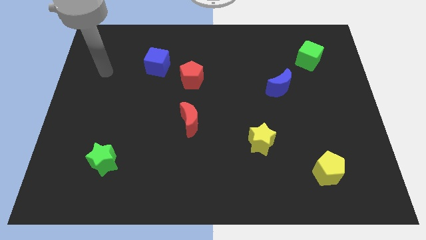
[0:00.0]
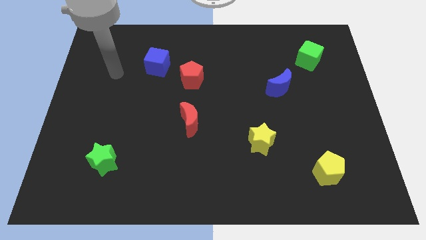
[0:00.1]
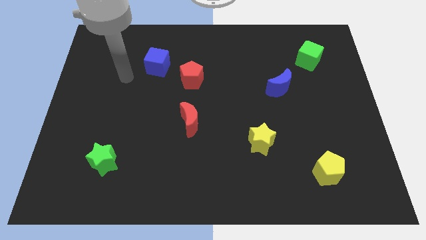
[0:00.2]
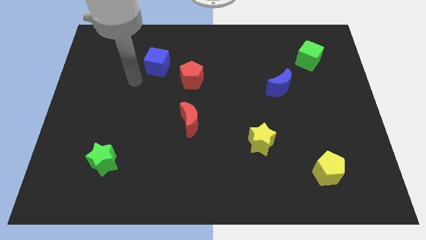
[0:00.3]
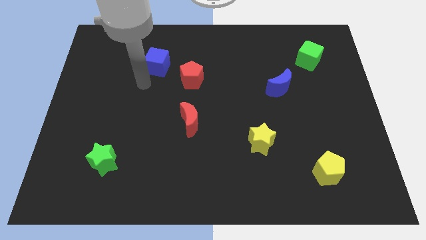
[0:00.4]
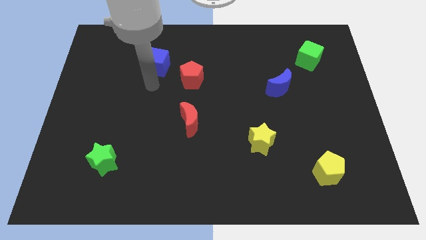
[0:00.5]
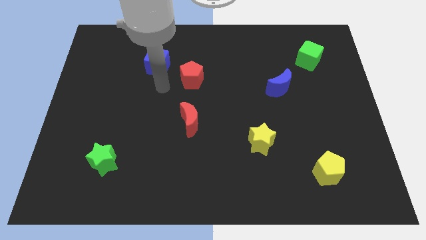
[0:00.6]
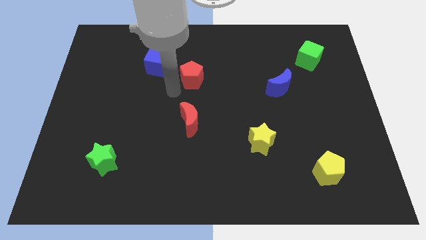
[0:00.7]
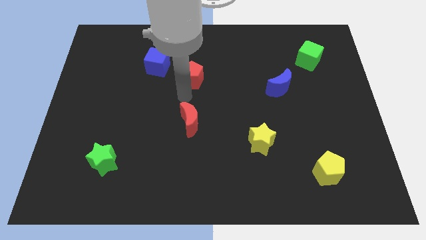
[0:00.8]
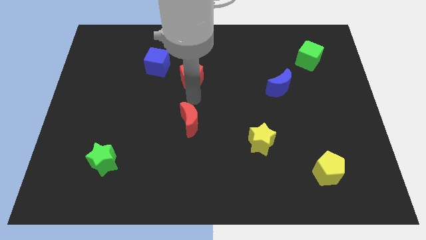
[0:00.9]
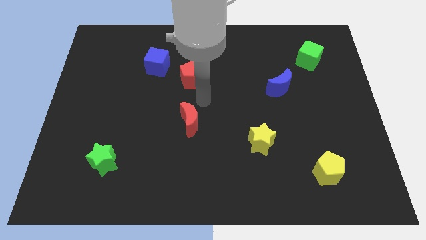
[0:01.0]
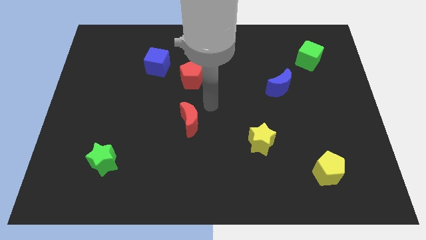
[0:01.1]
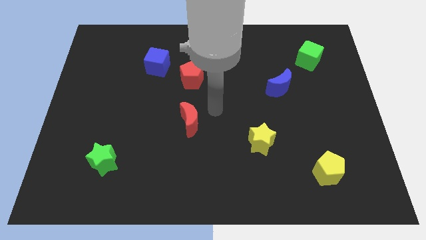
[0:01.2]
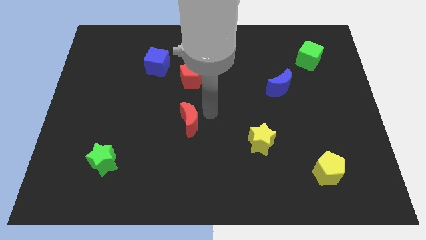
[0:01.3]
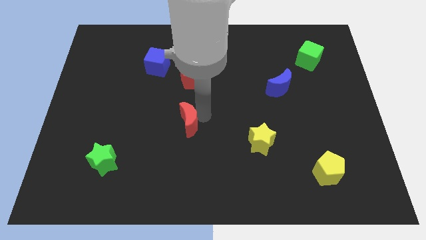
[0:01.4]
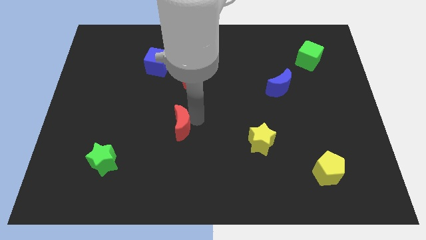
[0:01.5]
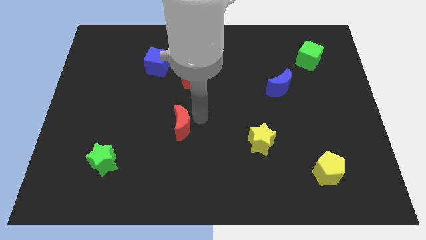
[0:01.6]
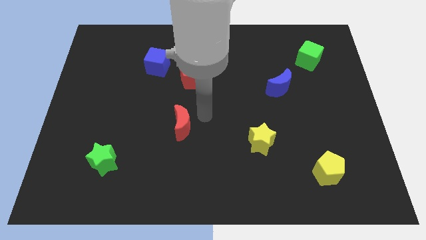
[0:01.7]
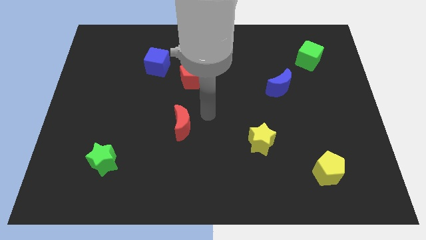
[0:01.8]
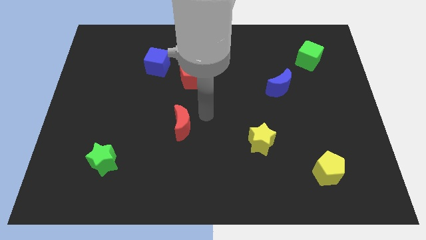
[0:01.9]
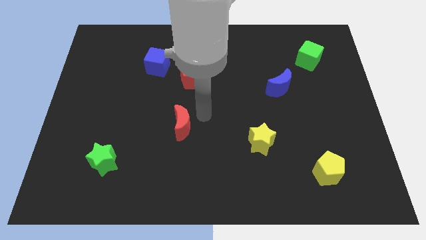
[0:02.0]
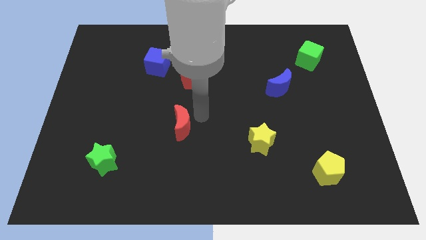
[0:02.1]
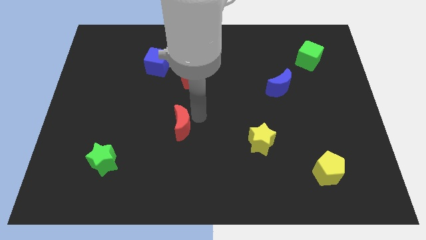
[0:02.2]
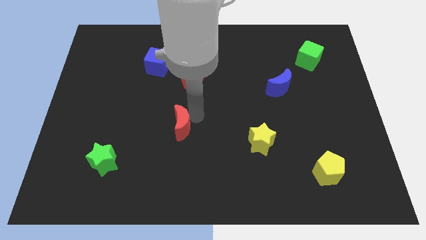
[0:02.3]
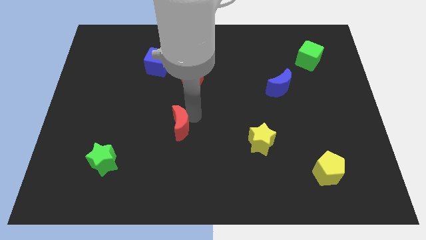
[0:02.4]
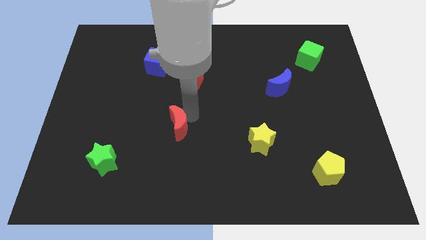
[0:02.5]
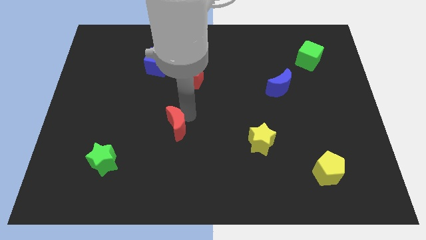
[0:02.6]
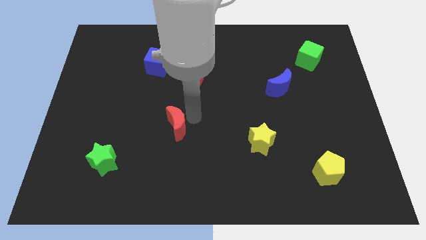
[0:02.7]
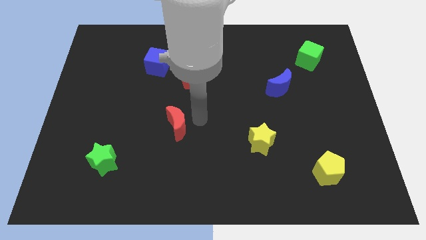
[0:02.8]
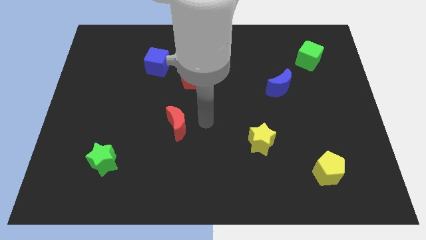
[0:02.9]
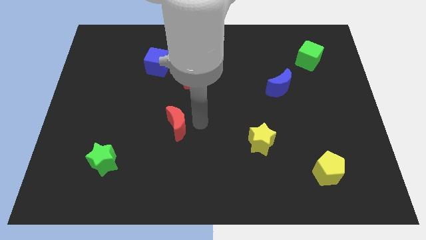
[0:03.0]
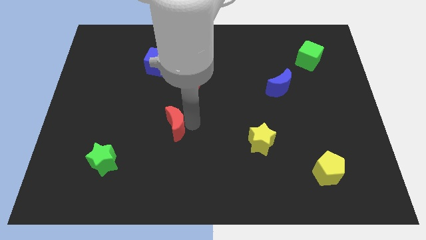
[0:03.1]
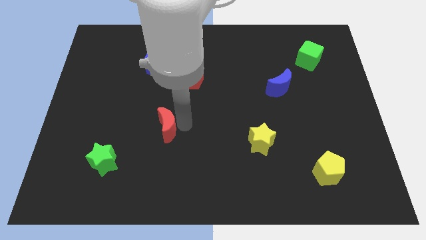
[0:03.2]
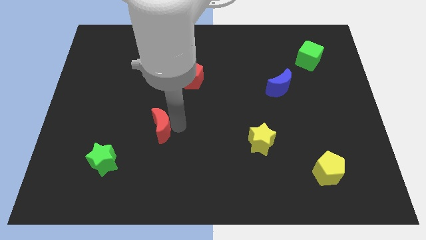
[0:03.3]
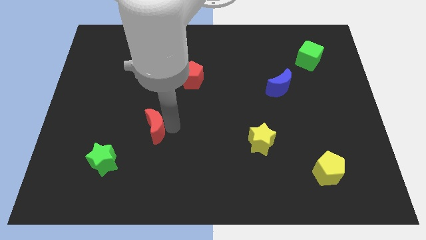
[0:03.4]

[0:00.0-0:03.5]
move the red moon to the left a little bit

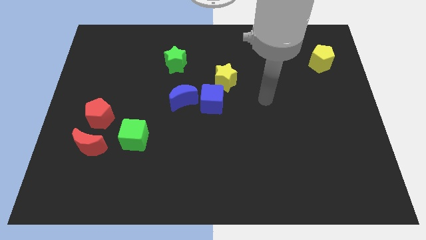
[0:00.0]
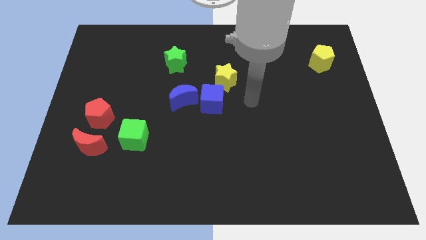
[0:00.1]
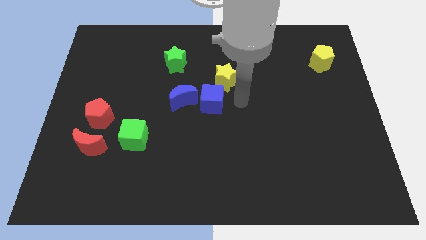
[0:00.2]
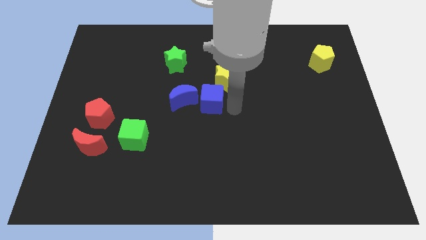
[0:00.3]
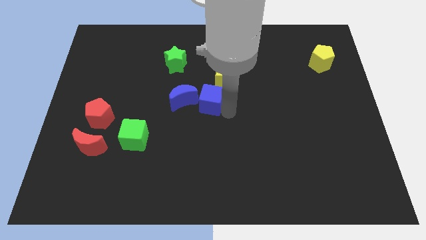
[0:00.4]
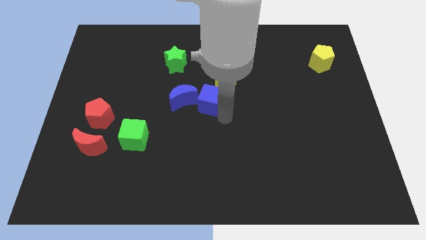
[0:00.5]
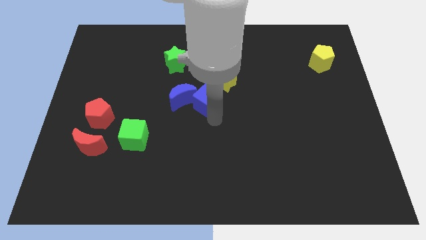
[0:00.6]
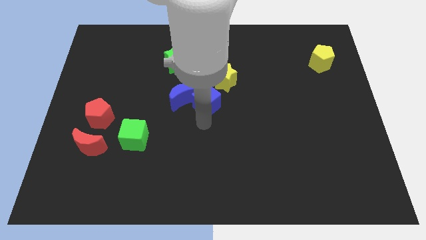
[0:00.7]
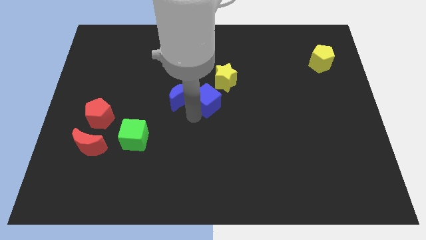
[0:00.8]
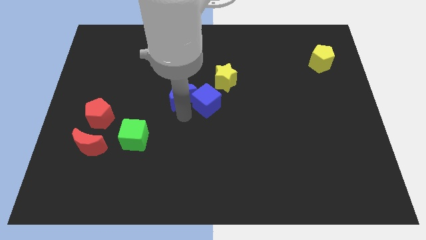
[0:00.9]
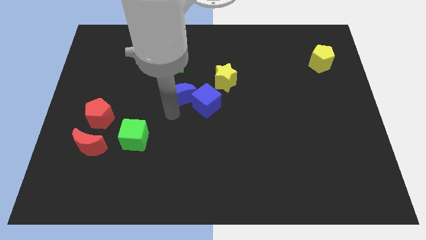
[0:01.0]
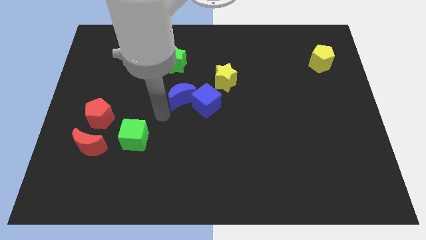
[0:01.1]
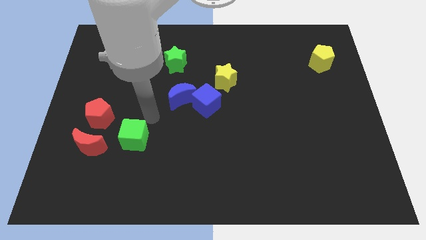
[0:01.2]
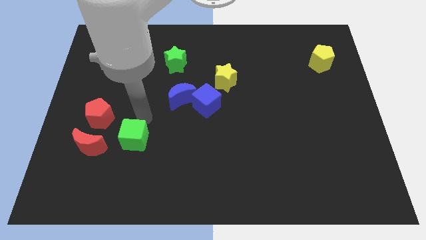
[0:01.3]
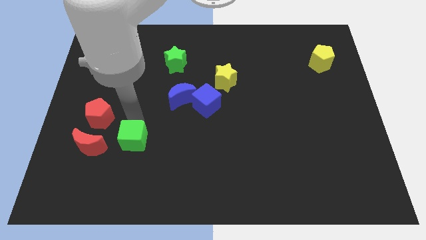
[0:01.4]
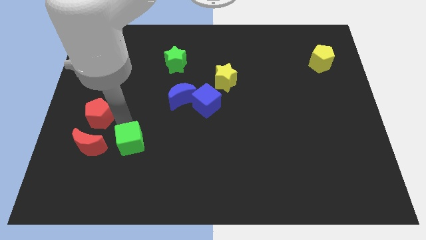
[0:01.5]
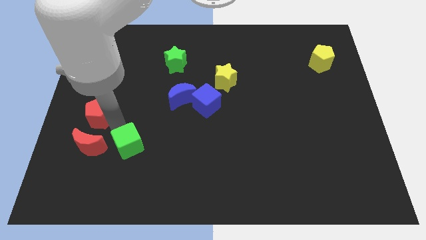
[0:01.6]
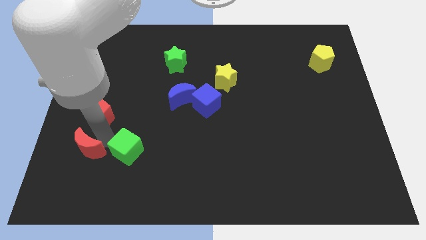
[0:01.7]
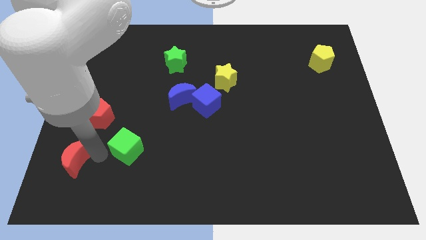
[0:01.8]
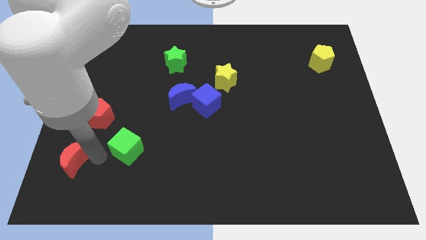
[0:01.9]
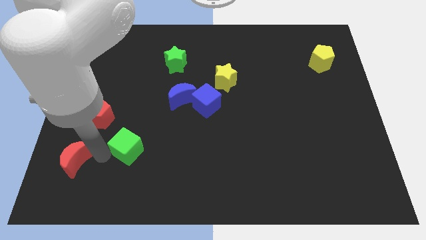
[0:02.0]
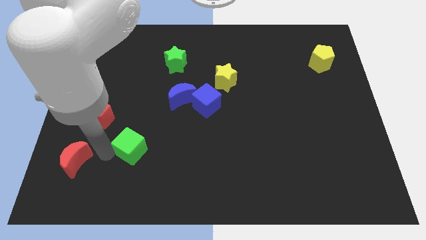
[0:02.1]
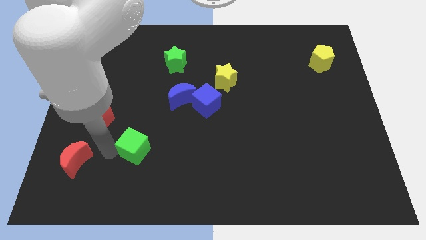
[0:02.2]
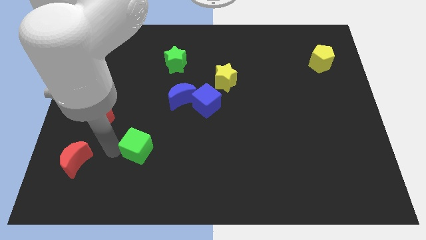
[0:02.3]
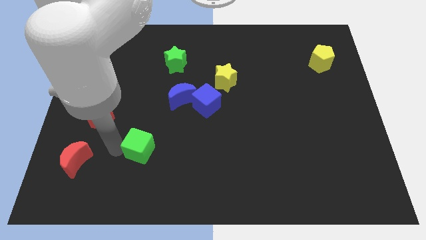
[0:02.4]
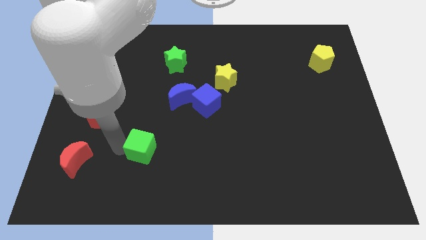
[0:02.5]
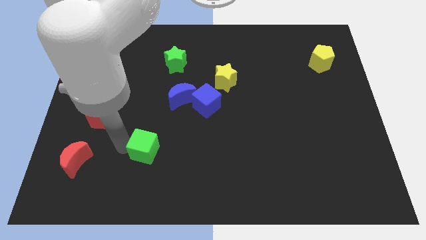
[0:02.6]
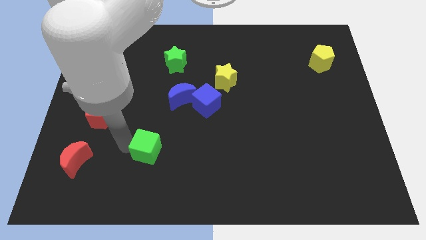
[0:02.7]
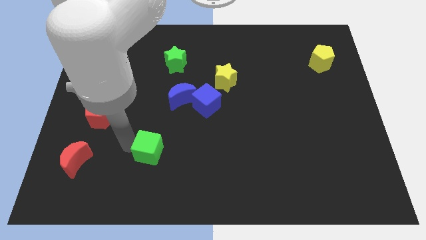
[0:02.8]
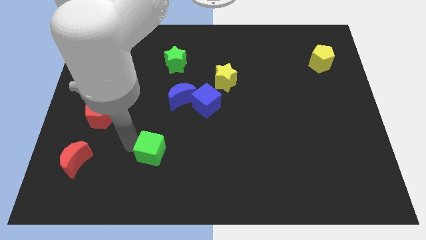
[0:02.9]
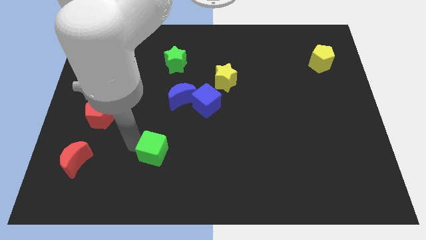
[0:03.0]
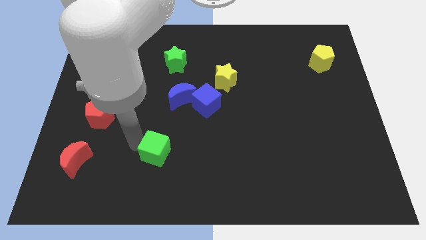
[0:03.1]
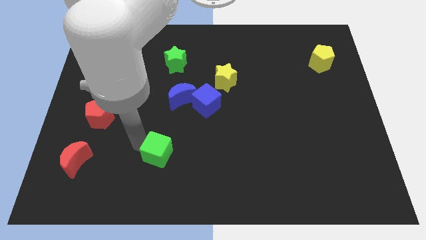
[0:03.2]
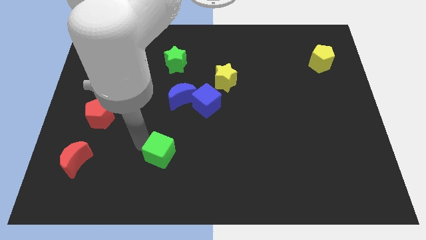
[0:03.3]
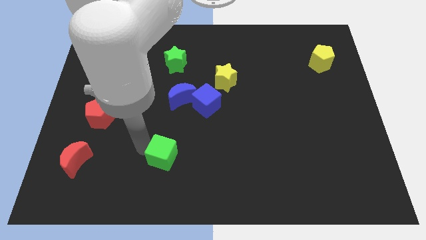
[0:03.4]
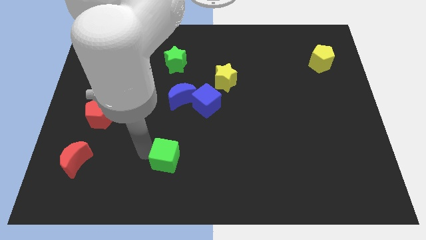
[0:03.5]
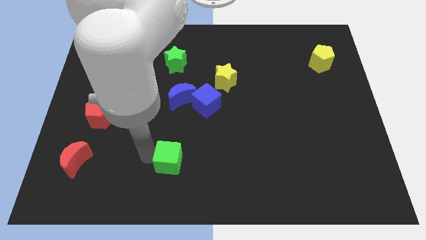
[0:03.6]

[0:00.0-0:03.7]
slide the green cube a bit right

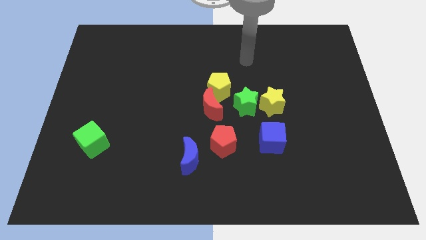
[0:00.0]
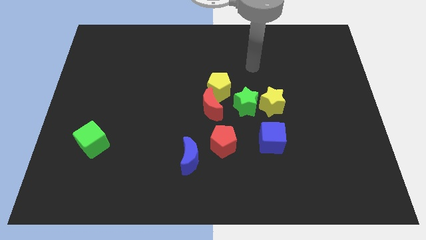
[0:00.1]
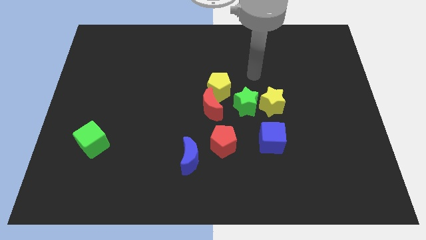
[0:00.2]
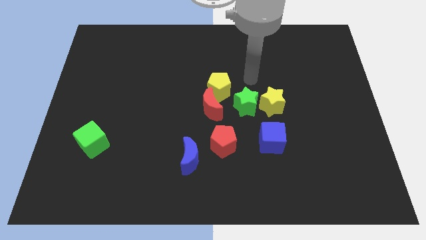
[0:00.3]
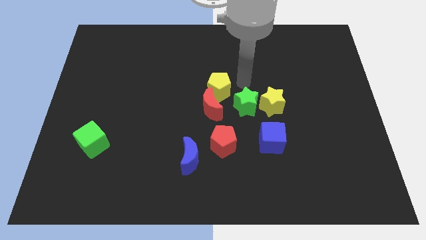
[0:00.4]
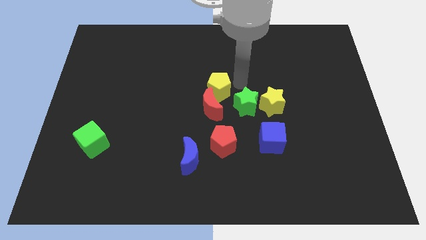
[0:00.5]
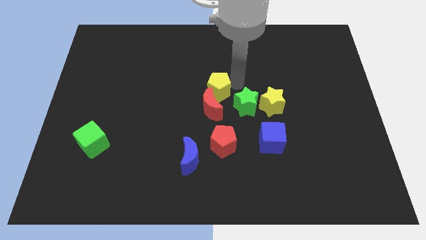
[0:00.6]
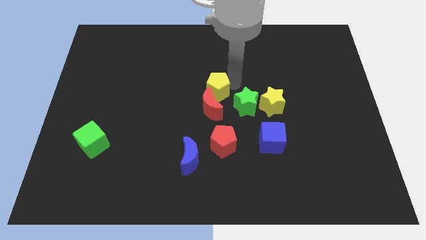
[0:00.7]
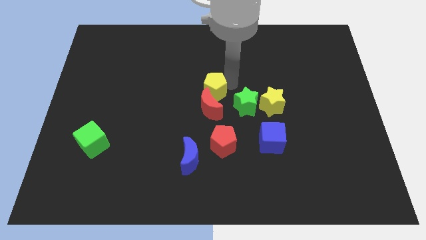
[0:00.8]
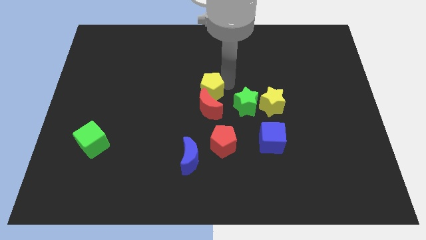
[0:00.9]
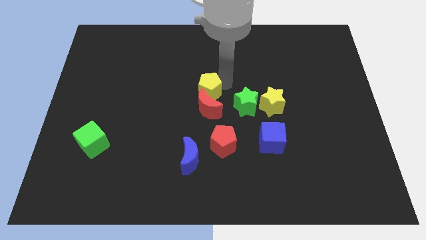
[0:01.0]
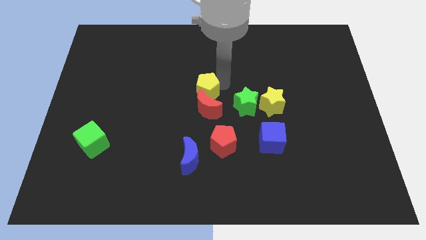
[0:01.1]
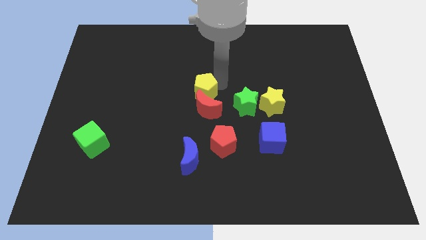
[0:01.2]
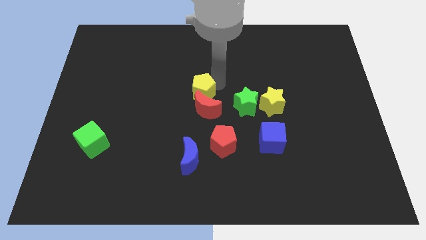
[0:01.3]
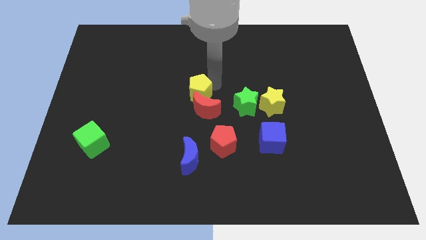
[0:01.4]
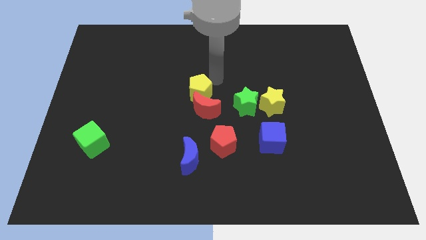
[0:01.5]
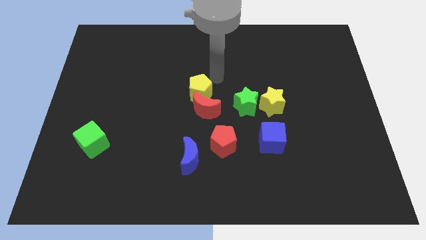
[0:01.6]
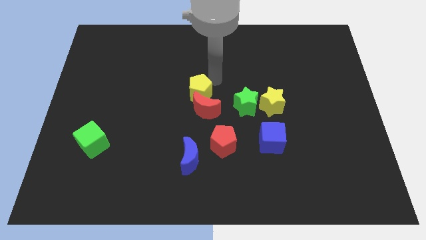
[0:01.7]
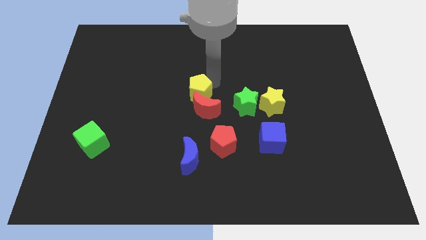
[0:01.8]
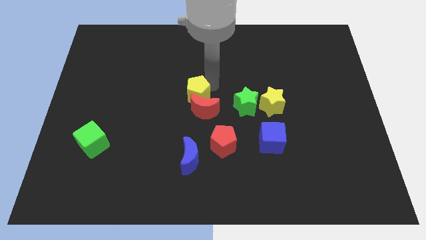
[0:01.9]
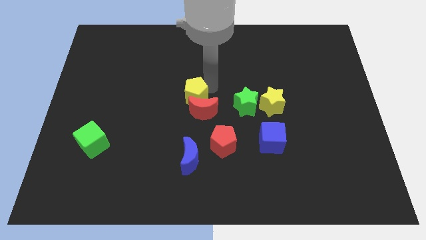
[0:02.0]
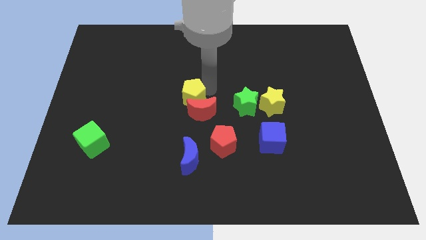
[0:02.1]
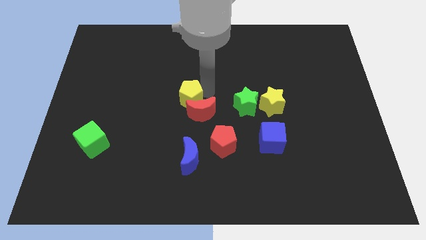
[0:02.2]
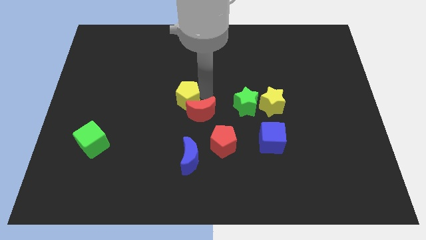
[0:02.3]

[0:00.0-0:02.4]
move the yellow pentagon somewhat downwards and to the left
